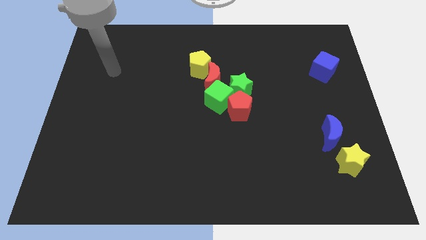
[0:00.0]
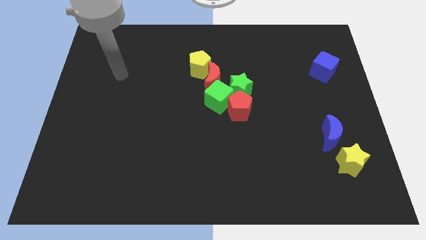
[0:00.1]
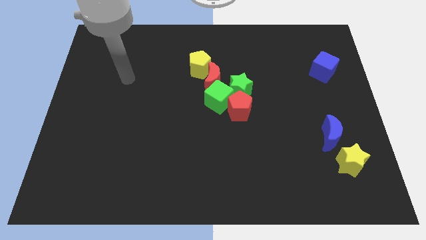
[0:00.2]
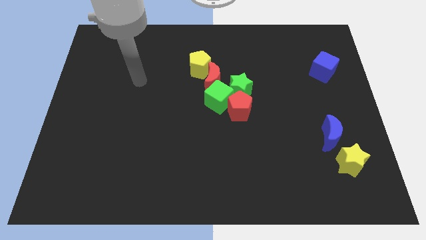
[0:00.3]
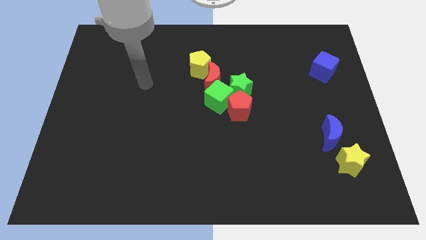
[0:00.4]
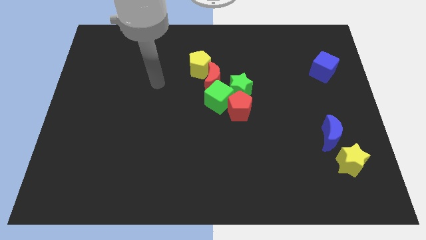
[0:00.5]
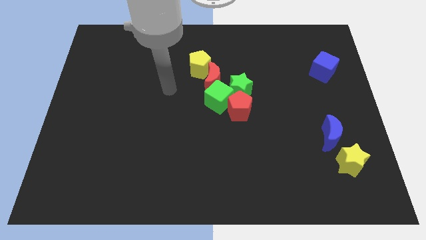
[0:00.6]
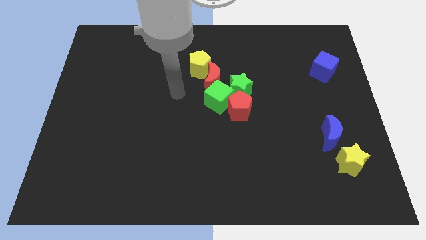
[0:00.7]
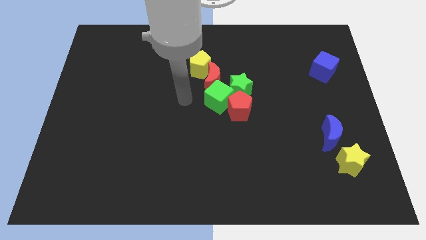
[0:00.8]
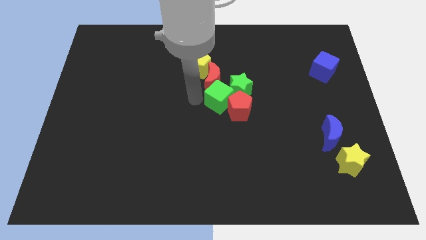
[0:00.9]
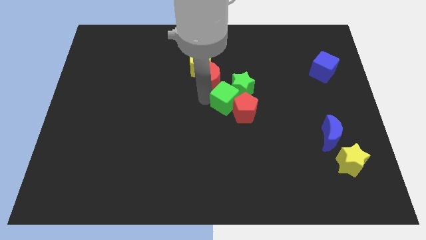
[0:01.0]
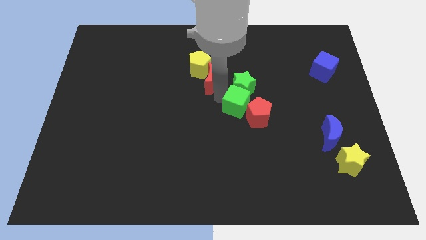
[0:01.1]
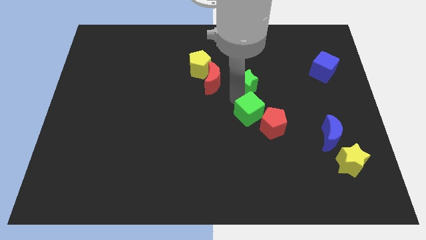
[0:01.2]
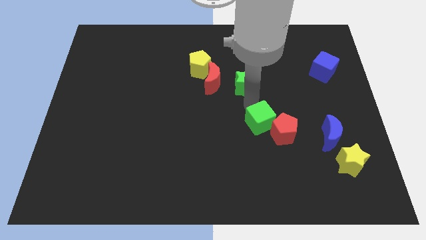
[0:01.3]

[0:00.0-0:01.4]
separate the red pentagon from the green cube and green star

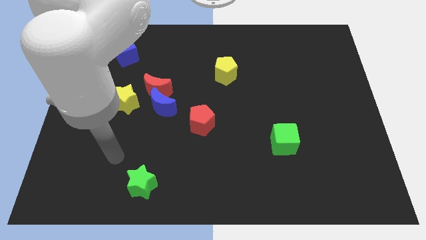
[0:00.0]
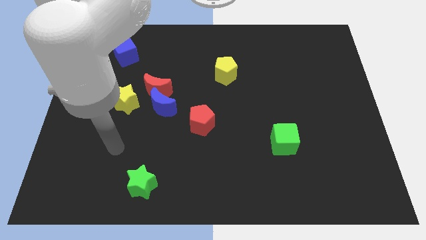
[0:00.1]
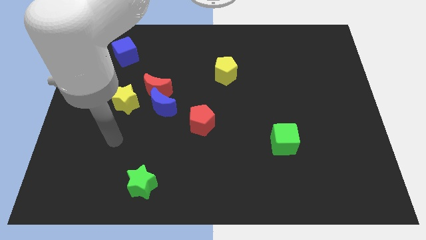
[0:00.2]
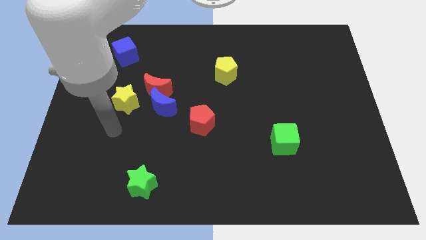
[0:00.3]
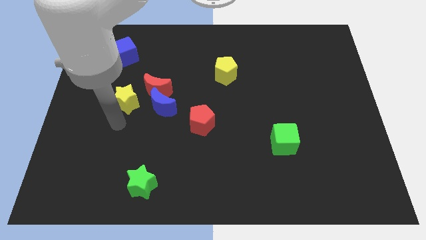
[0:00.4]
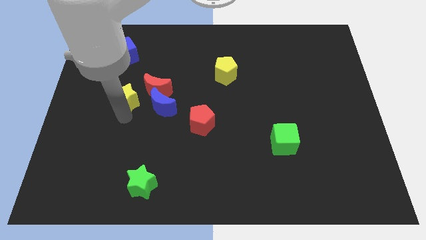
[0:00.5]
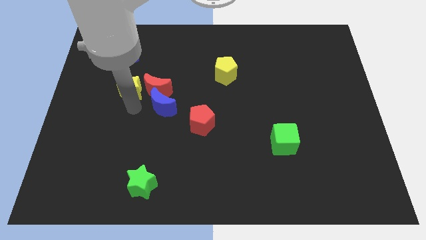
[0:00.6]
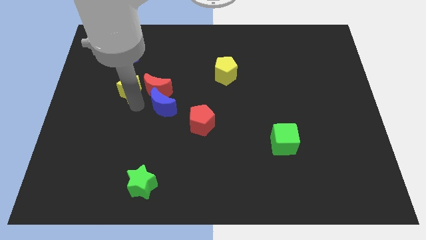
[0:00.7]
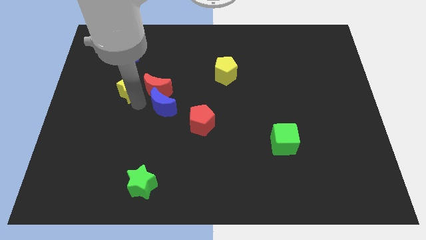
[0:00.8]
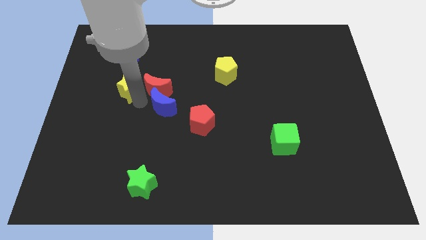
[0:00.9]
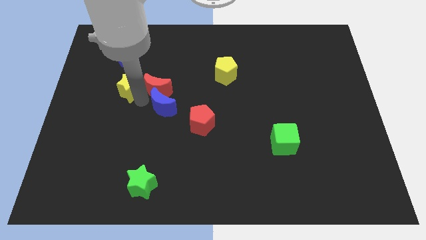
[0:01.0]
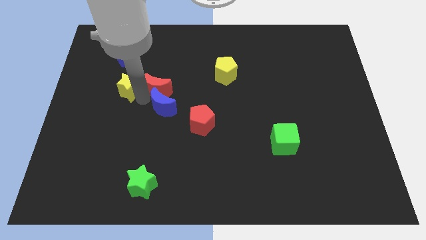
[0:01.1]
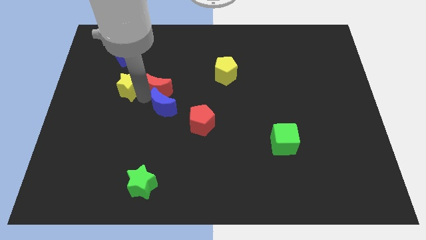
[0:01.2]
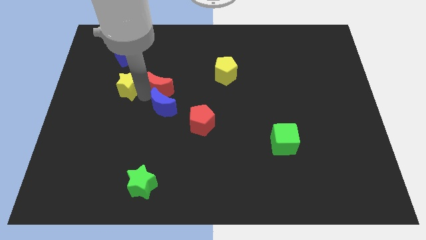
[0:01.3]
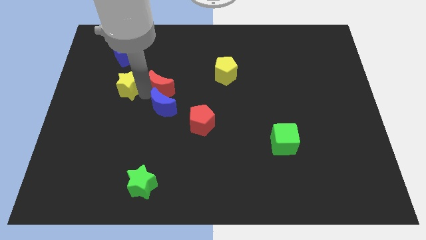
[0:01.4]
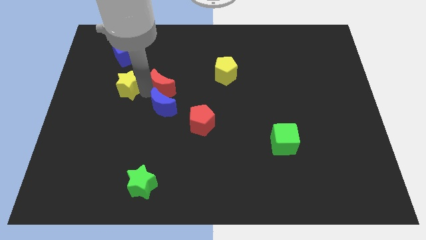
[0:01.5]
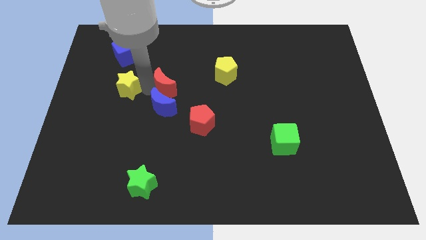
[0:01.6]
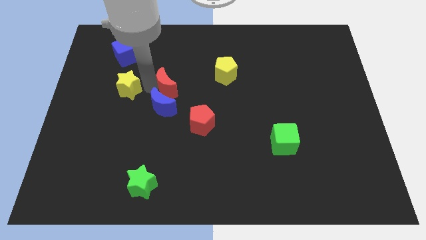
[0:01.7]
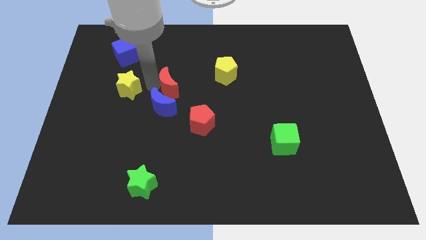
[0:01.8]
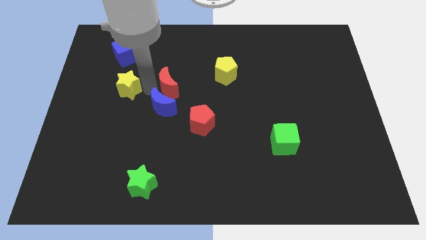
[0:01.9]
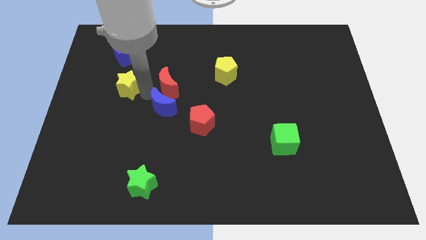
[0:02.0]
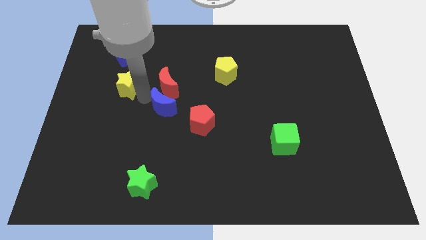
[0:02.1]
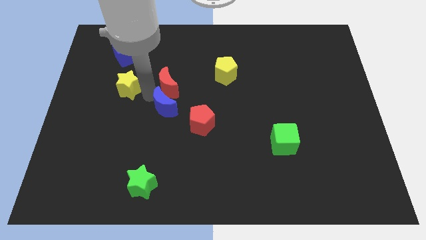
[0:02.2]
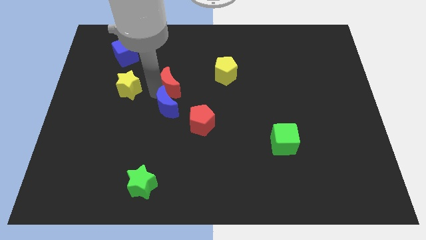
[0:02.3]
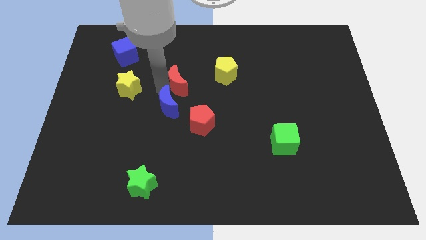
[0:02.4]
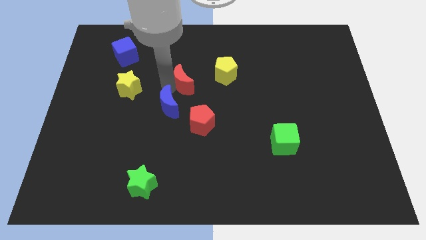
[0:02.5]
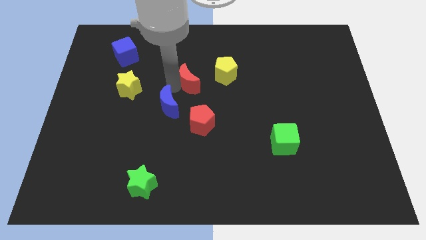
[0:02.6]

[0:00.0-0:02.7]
separate the red moon from the blue moon and yellow star

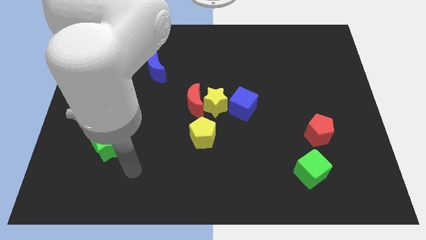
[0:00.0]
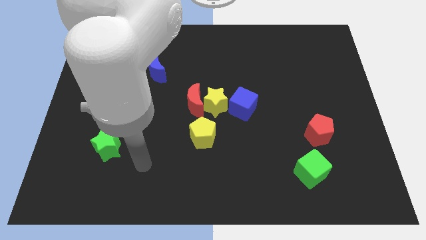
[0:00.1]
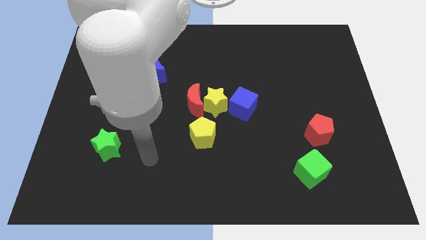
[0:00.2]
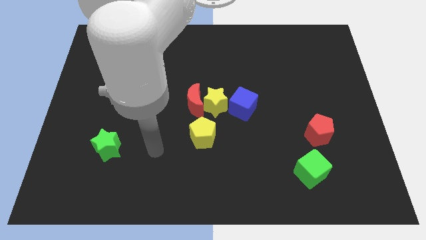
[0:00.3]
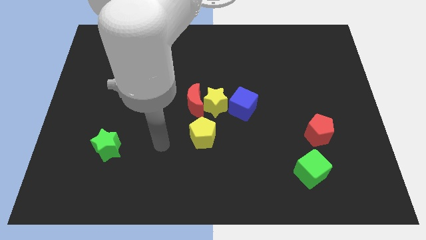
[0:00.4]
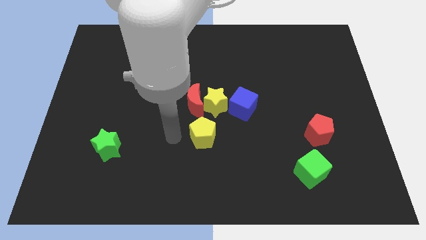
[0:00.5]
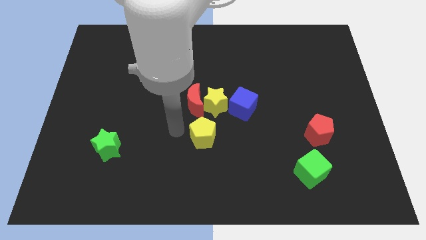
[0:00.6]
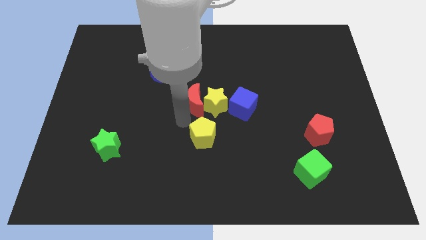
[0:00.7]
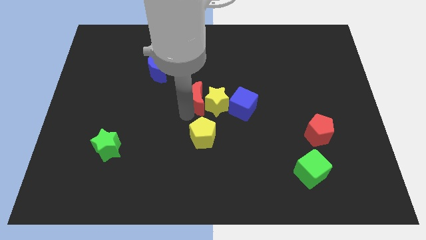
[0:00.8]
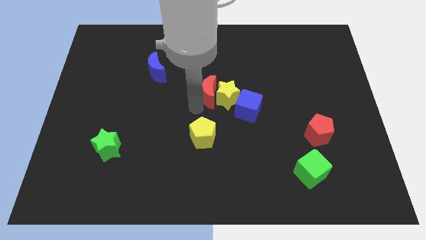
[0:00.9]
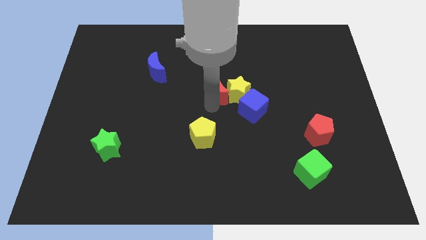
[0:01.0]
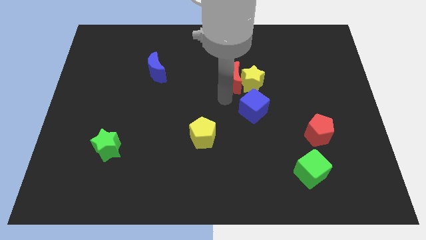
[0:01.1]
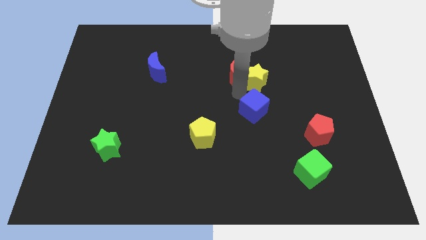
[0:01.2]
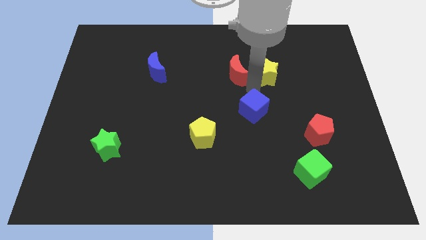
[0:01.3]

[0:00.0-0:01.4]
separate the blue cube from the yellow star

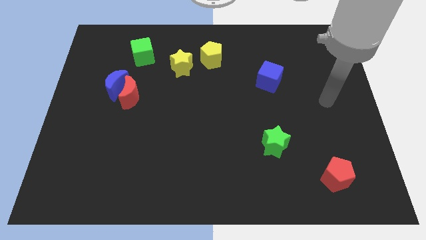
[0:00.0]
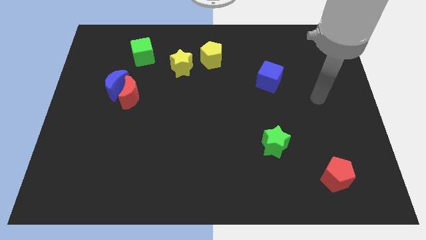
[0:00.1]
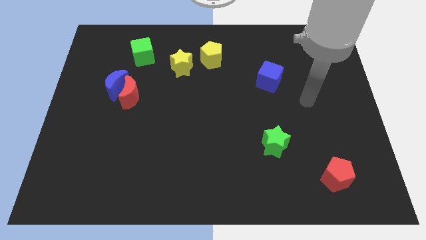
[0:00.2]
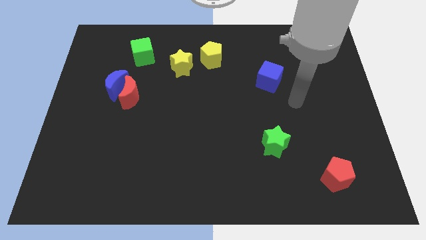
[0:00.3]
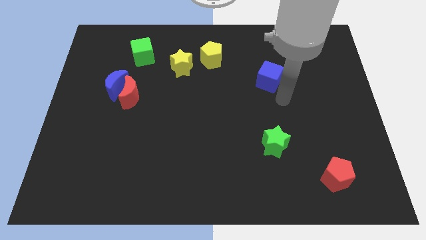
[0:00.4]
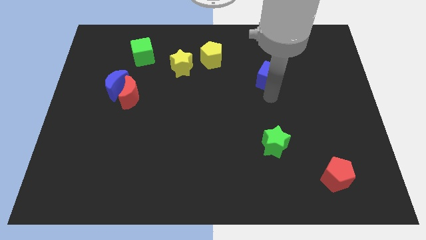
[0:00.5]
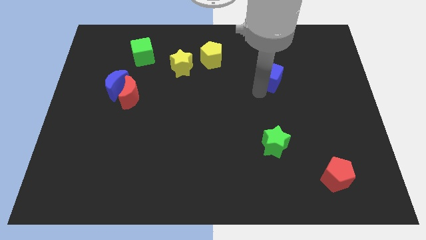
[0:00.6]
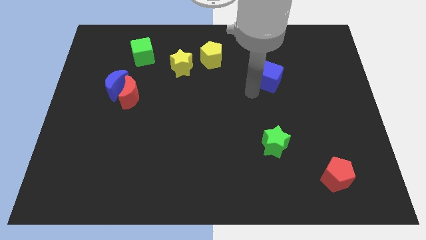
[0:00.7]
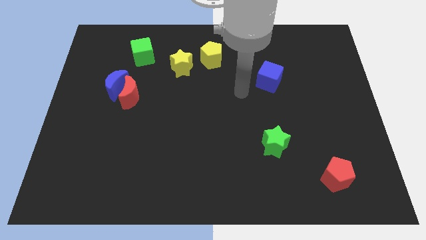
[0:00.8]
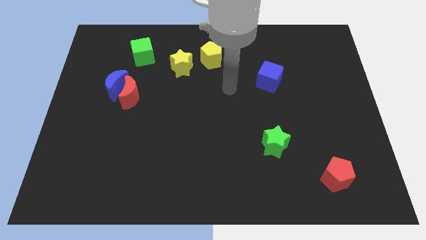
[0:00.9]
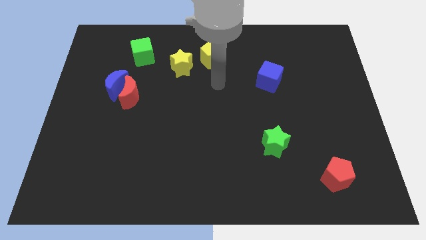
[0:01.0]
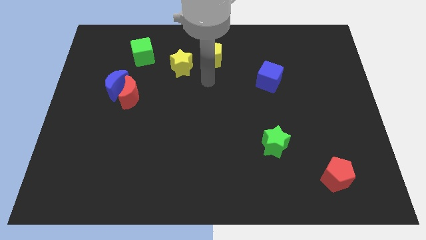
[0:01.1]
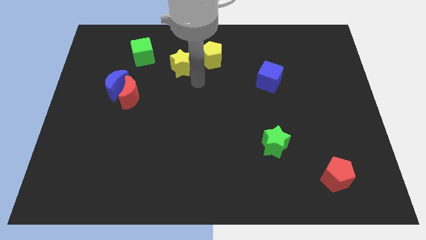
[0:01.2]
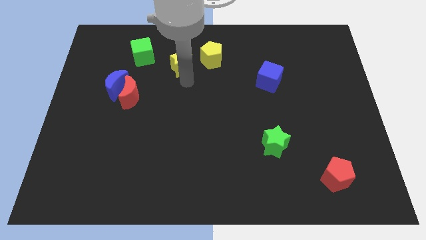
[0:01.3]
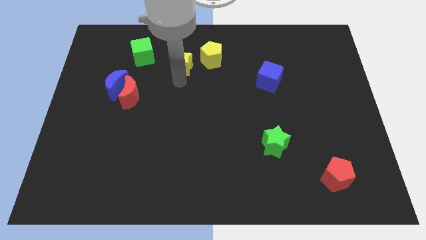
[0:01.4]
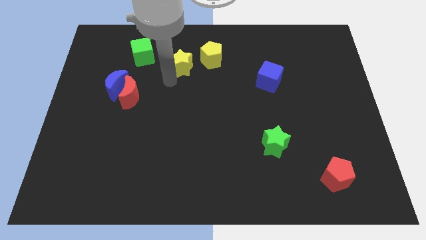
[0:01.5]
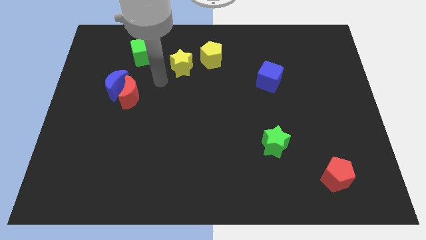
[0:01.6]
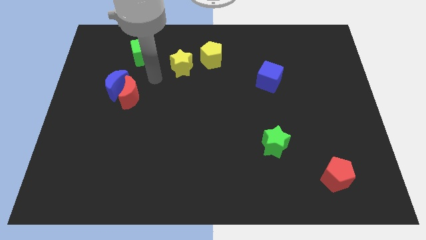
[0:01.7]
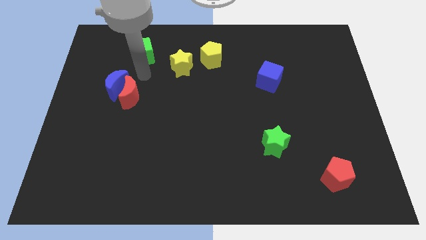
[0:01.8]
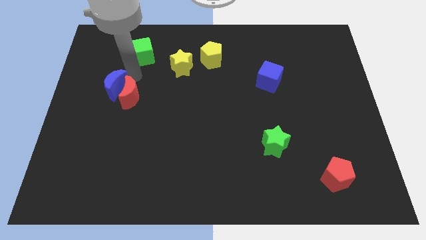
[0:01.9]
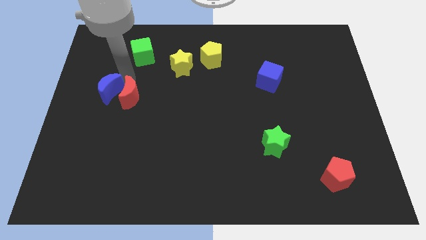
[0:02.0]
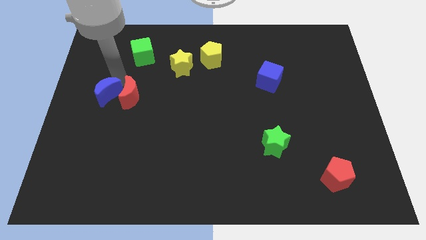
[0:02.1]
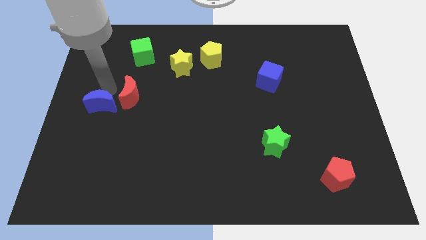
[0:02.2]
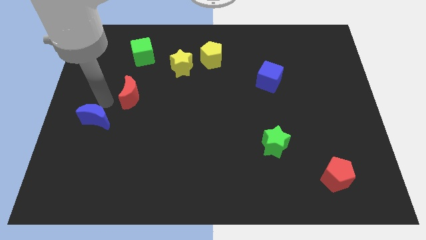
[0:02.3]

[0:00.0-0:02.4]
move the red moon away from the blue moon

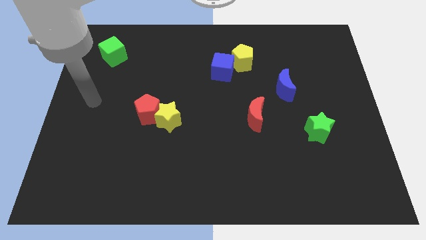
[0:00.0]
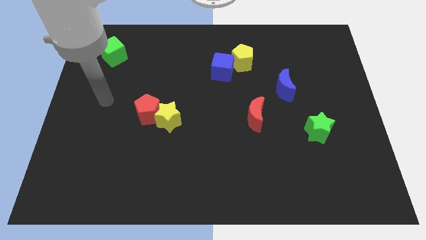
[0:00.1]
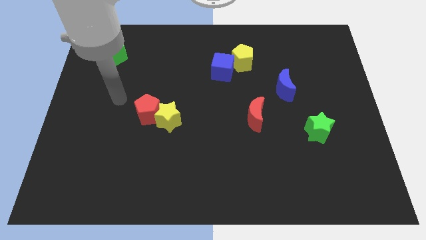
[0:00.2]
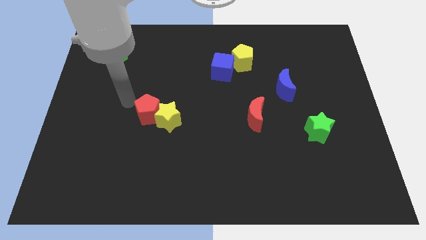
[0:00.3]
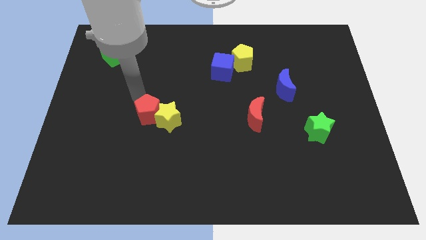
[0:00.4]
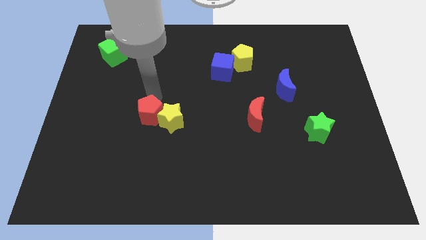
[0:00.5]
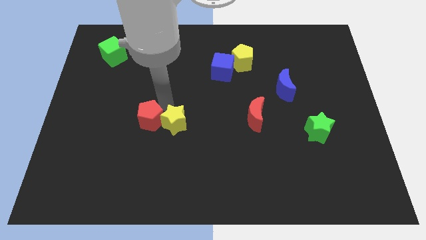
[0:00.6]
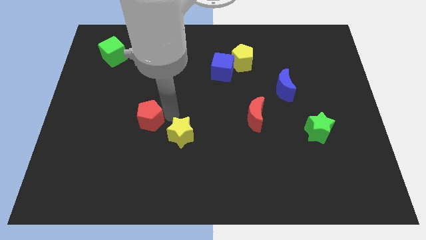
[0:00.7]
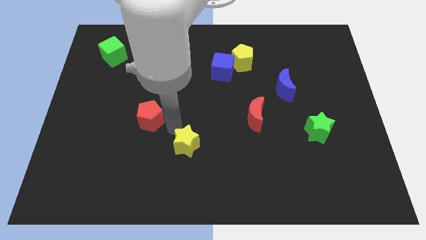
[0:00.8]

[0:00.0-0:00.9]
move the red pentagon away from the yellow star

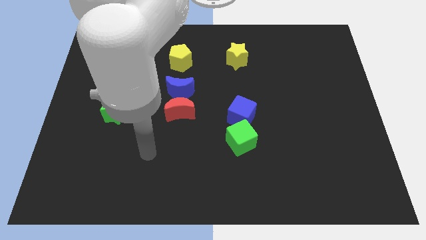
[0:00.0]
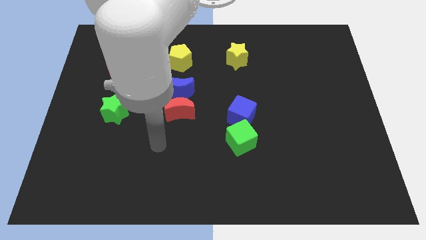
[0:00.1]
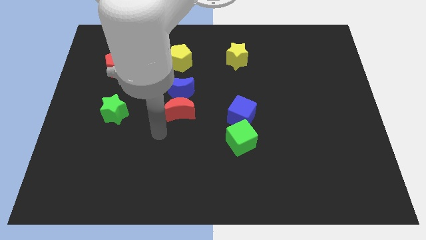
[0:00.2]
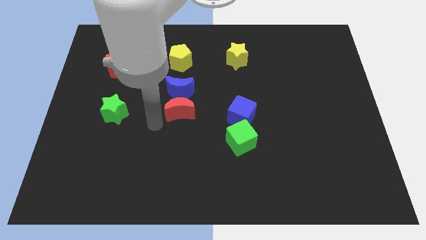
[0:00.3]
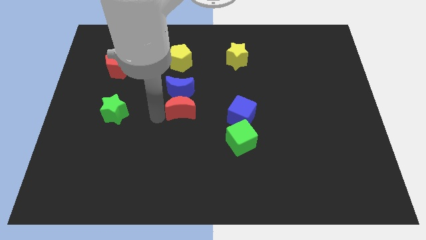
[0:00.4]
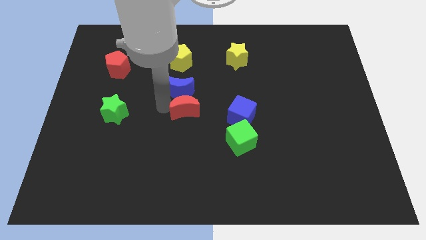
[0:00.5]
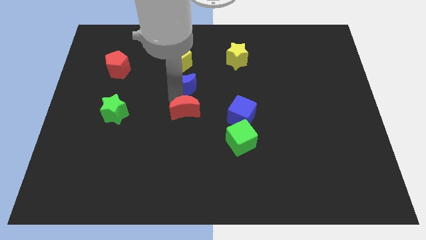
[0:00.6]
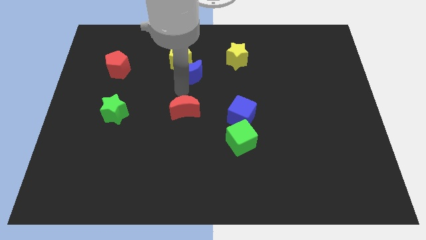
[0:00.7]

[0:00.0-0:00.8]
separate the red moon from the blue moon
